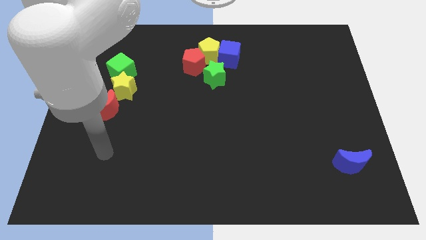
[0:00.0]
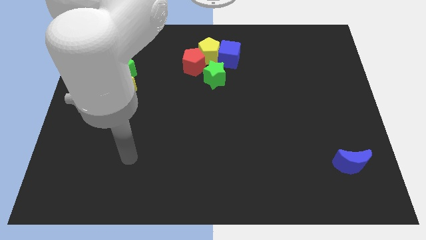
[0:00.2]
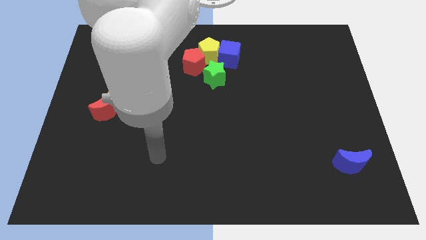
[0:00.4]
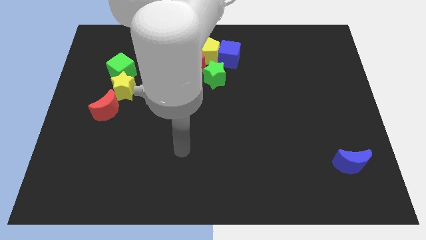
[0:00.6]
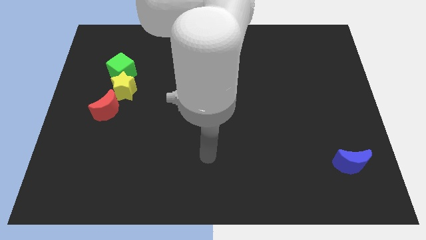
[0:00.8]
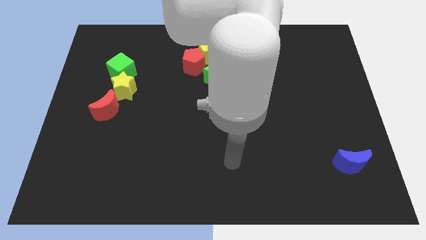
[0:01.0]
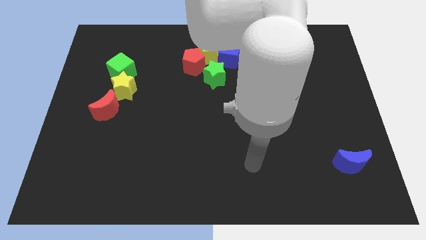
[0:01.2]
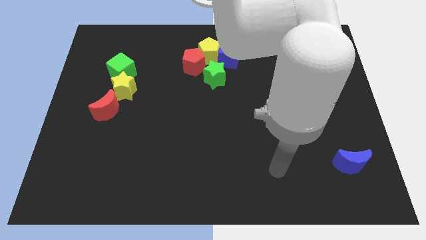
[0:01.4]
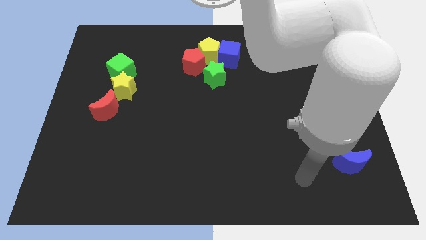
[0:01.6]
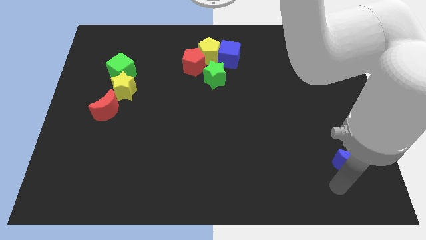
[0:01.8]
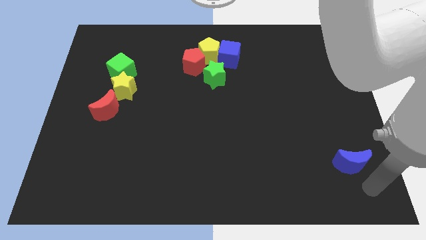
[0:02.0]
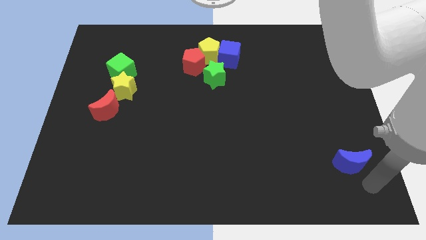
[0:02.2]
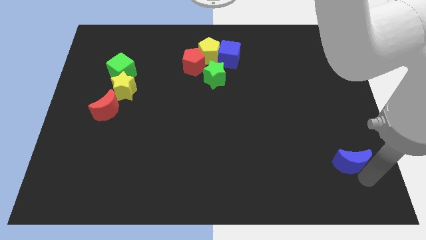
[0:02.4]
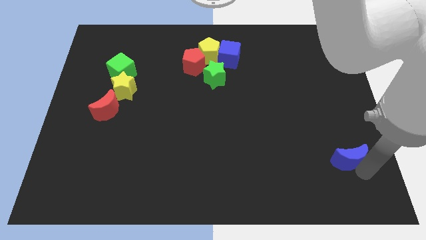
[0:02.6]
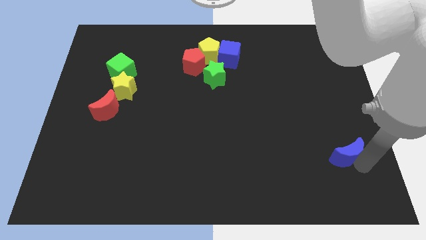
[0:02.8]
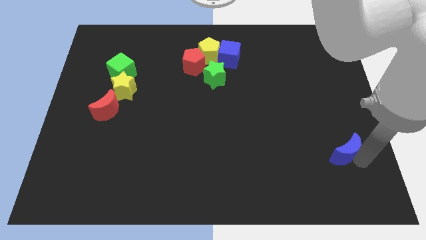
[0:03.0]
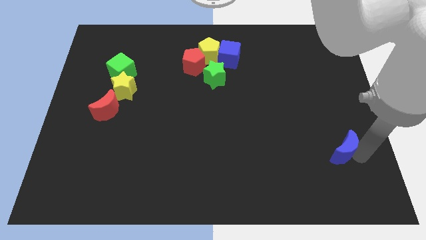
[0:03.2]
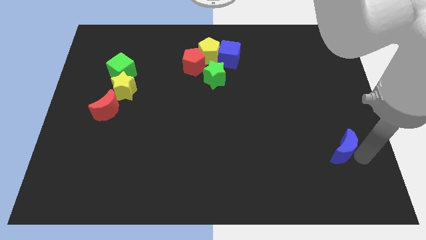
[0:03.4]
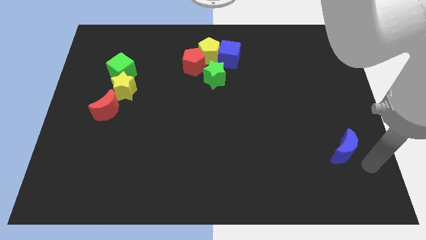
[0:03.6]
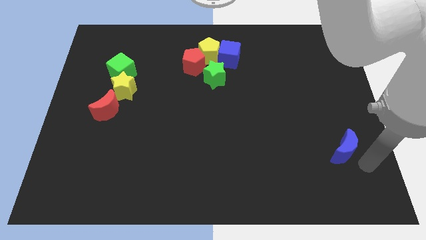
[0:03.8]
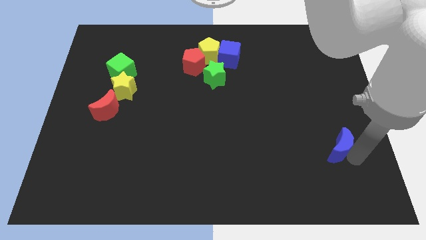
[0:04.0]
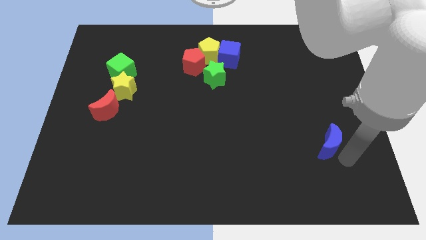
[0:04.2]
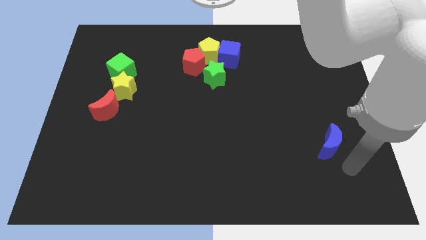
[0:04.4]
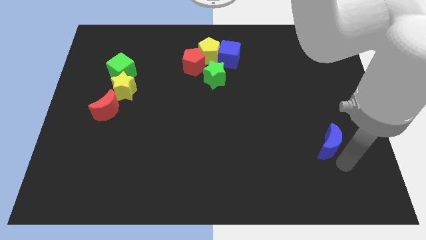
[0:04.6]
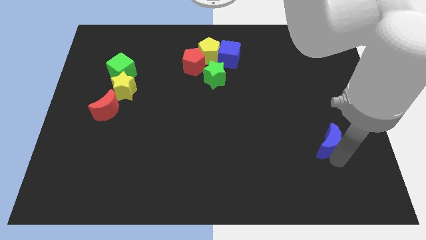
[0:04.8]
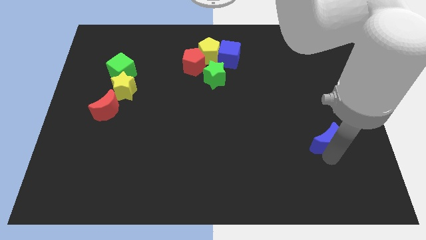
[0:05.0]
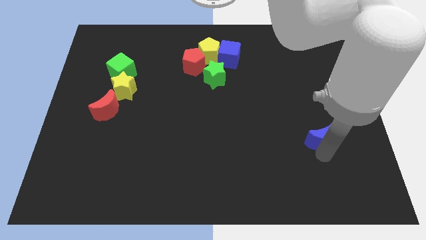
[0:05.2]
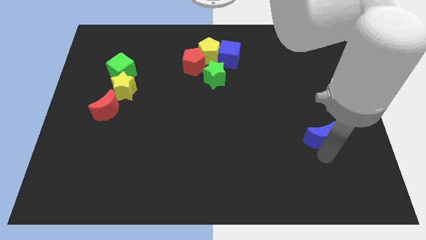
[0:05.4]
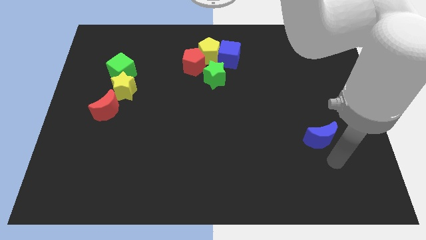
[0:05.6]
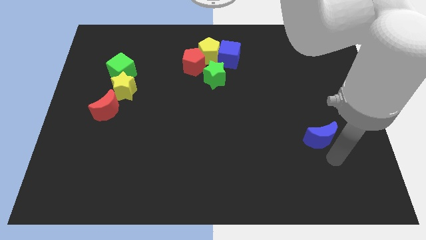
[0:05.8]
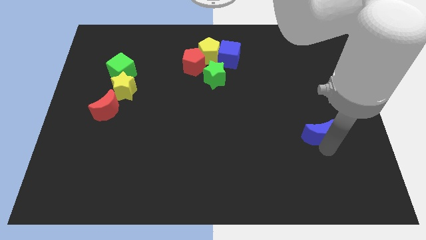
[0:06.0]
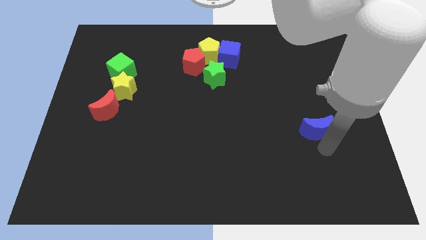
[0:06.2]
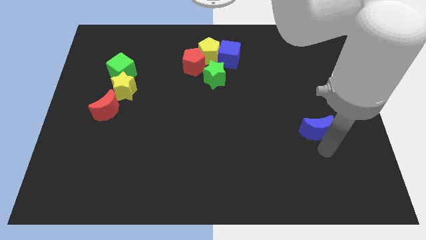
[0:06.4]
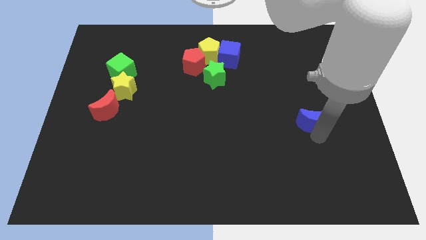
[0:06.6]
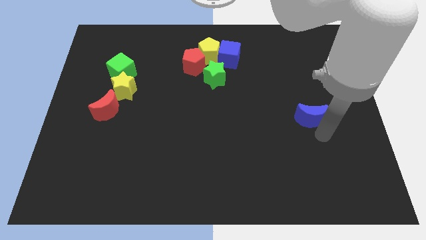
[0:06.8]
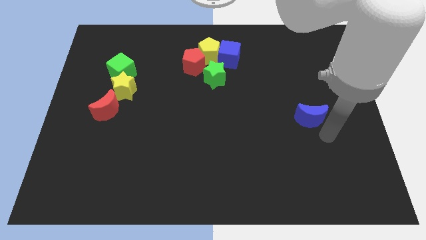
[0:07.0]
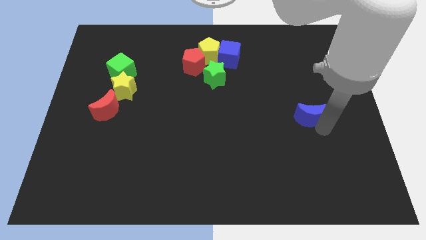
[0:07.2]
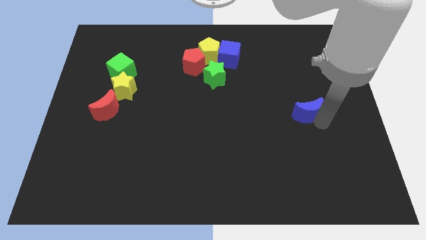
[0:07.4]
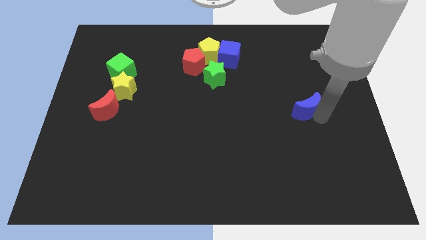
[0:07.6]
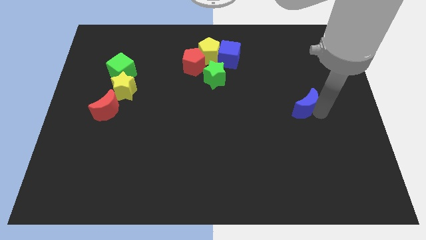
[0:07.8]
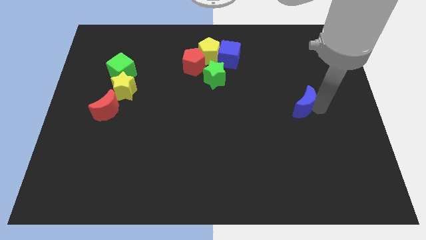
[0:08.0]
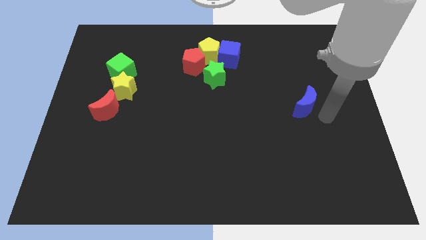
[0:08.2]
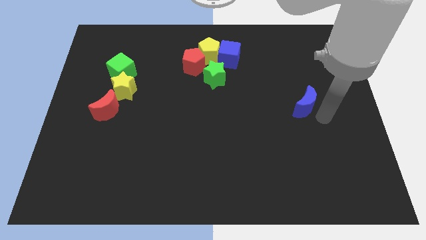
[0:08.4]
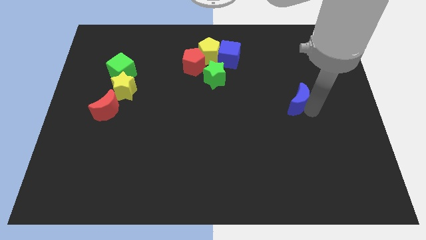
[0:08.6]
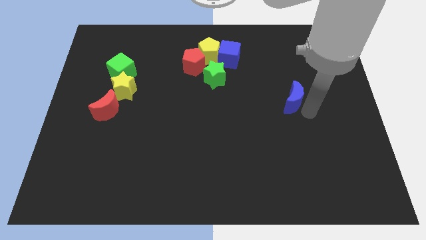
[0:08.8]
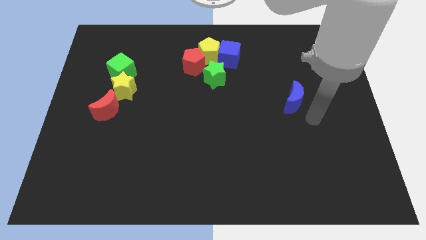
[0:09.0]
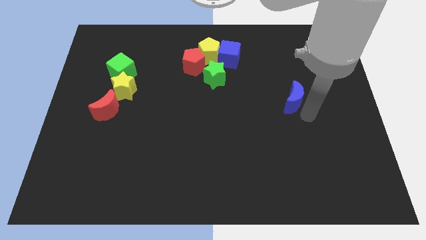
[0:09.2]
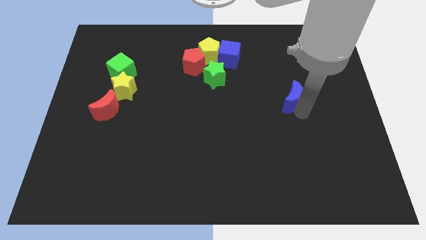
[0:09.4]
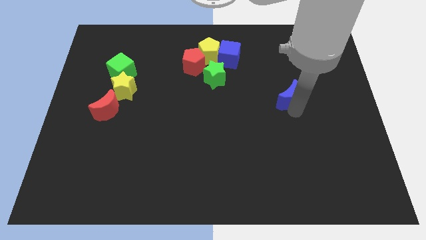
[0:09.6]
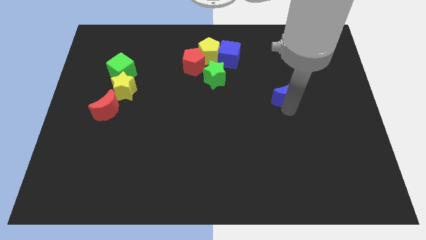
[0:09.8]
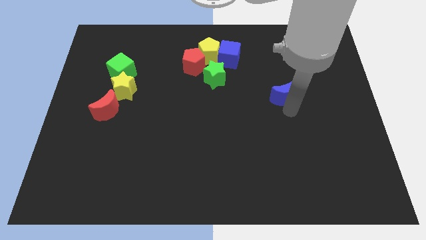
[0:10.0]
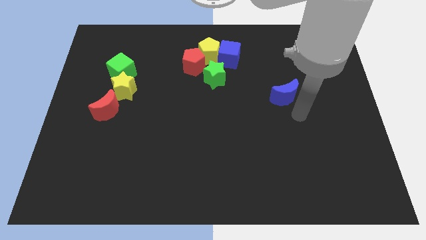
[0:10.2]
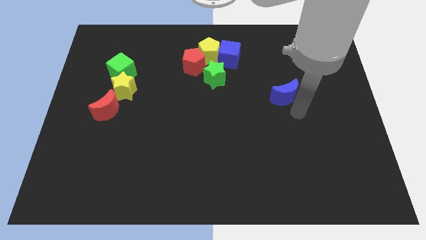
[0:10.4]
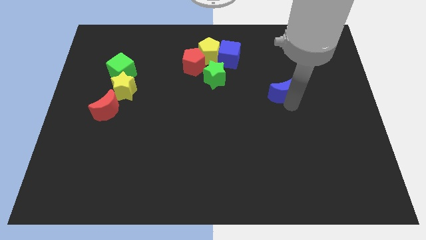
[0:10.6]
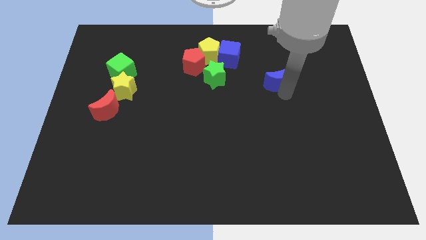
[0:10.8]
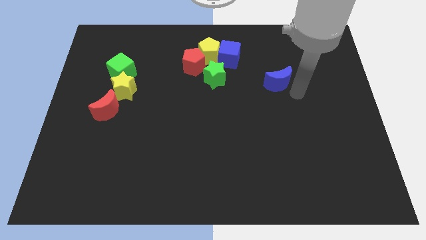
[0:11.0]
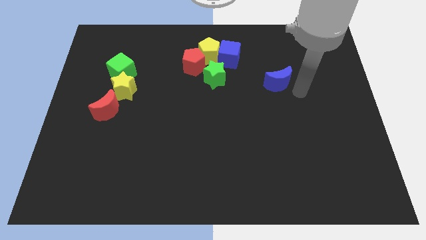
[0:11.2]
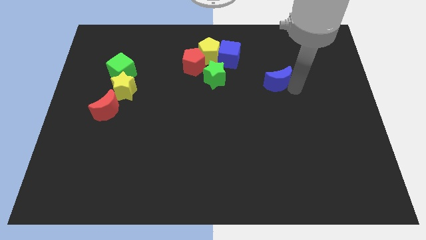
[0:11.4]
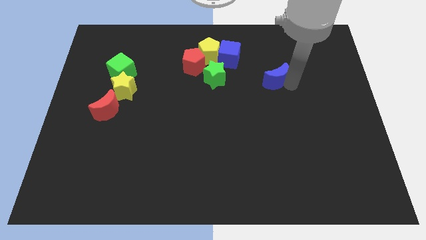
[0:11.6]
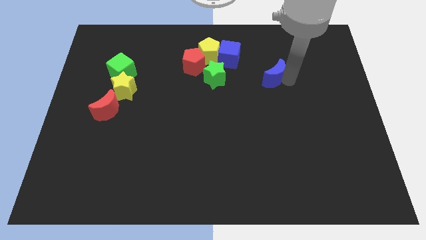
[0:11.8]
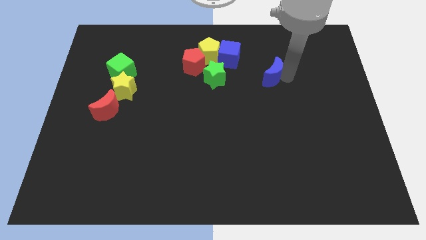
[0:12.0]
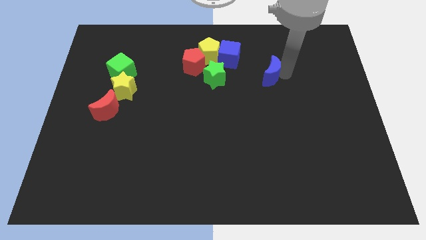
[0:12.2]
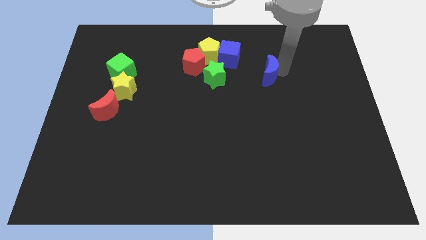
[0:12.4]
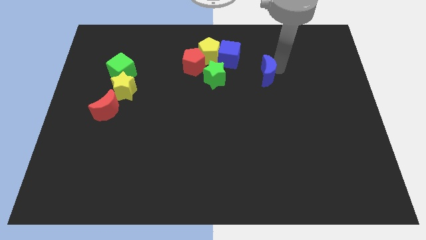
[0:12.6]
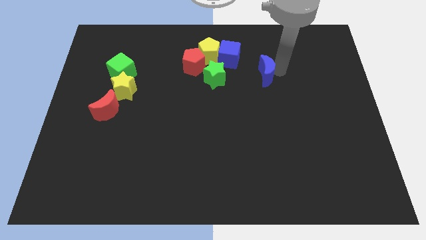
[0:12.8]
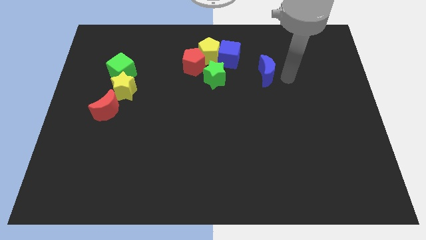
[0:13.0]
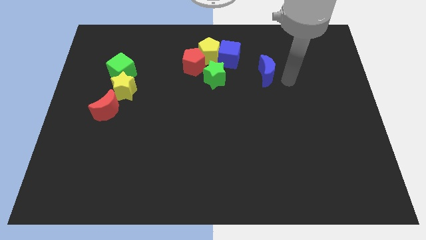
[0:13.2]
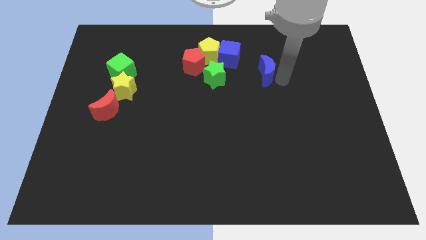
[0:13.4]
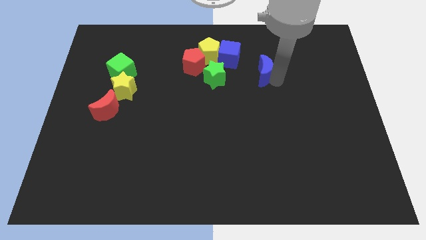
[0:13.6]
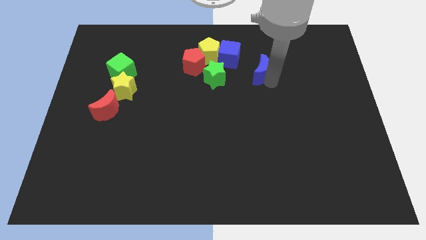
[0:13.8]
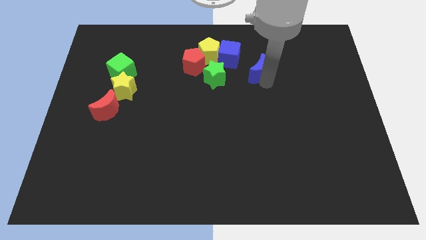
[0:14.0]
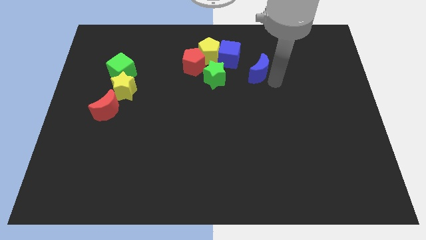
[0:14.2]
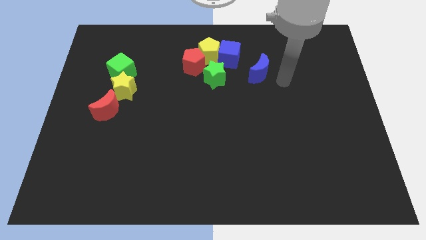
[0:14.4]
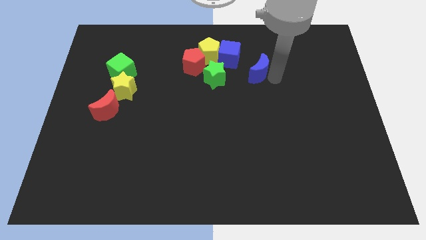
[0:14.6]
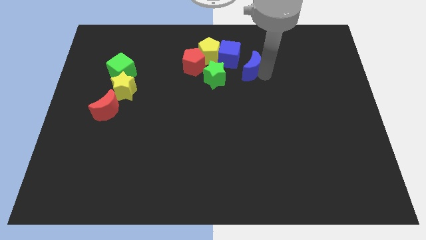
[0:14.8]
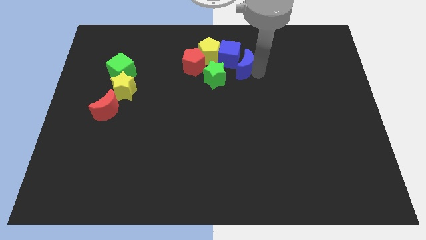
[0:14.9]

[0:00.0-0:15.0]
slide the blue moon close to the blue cube
